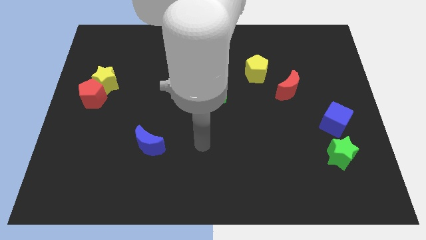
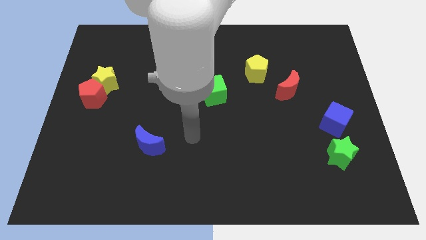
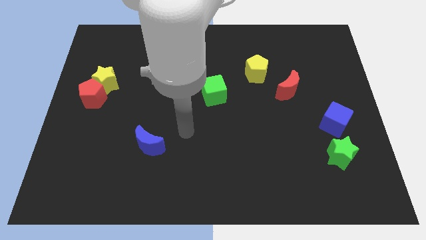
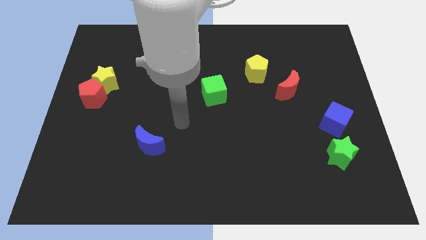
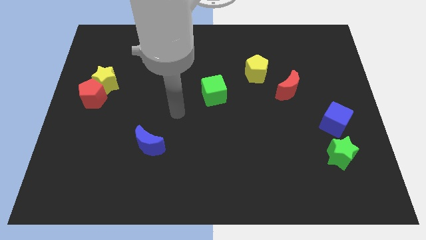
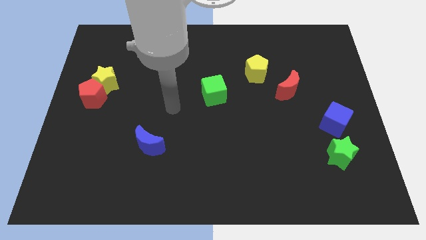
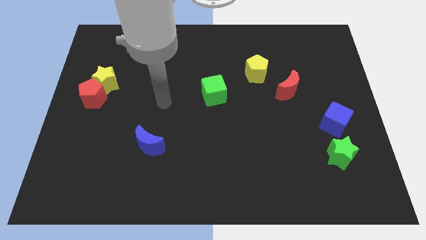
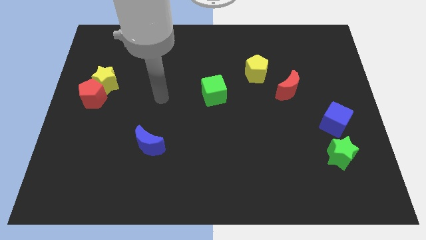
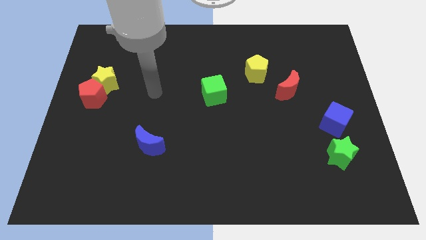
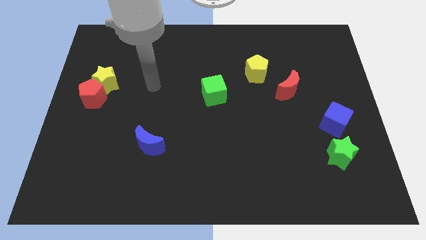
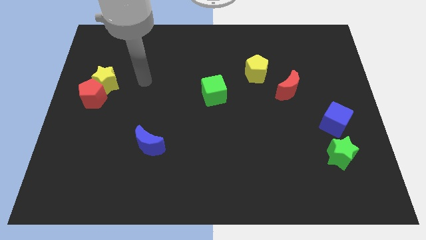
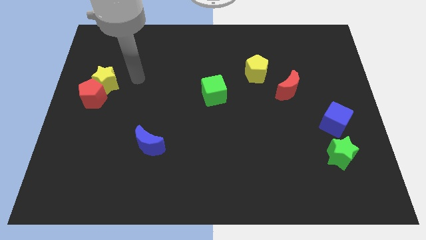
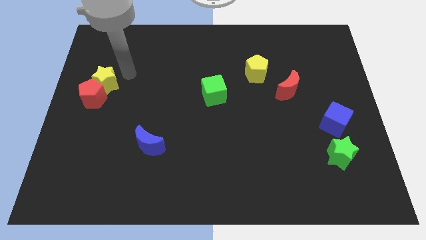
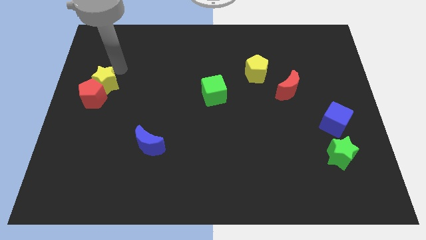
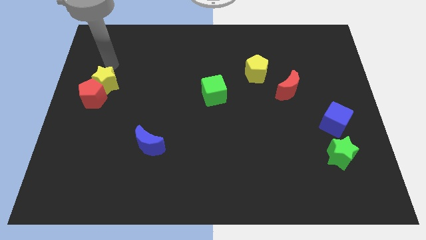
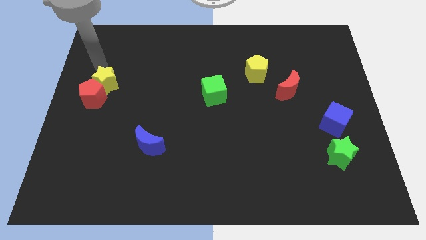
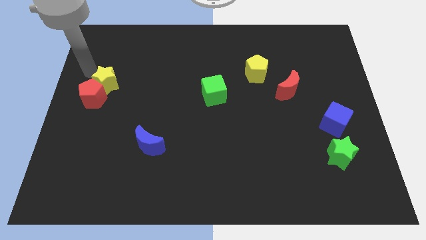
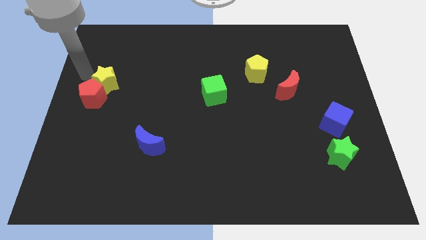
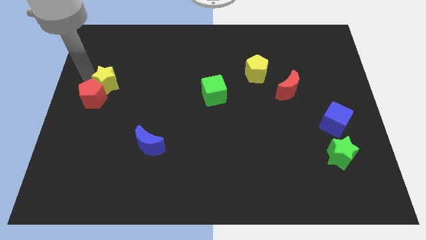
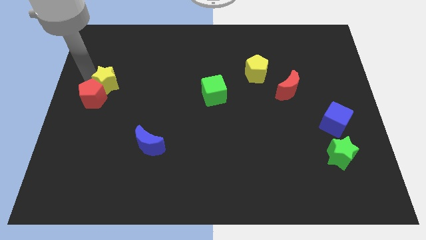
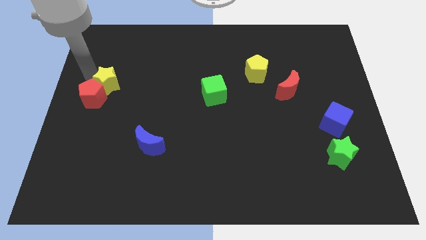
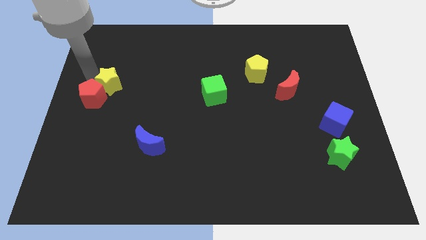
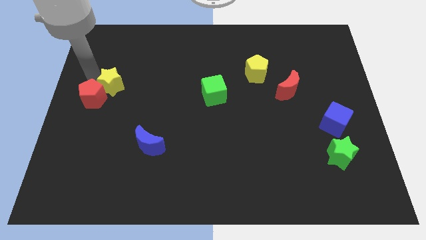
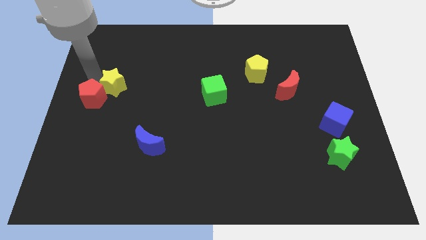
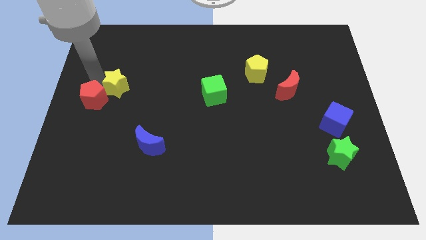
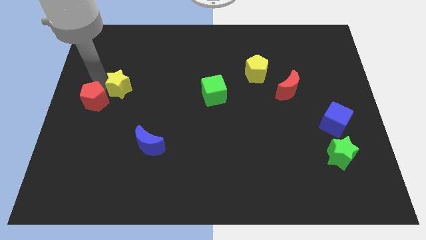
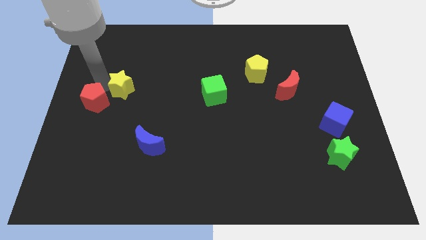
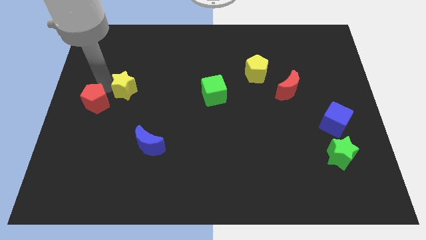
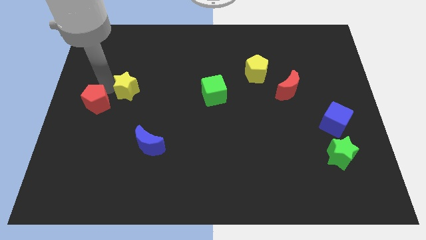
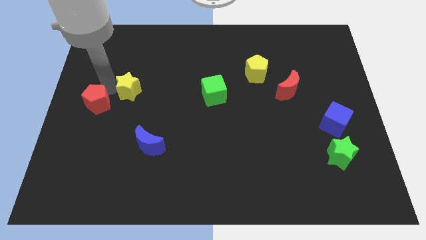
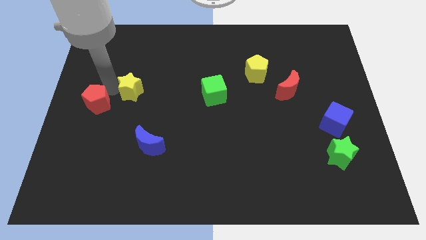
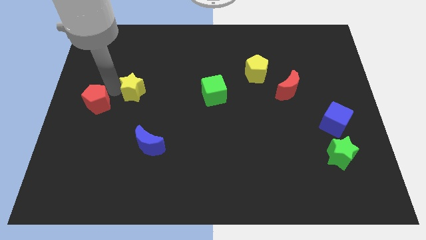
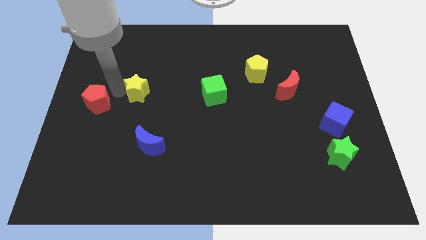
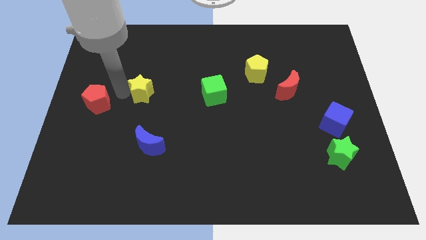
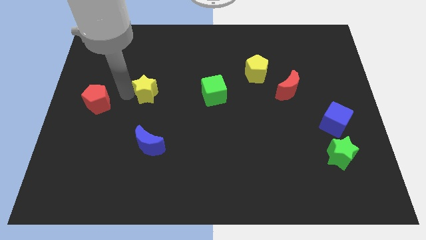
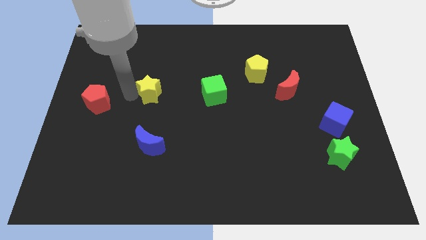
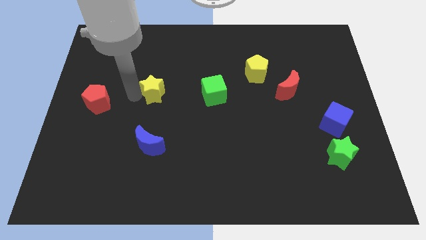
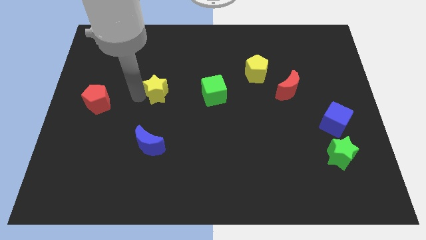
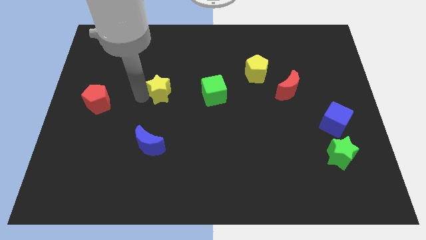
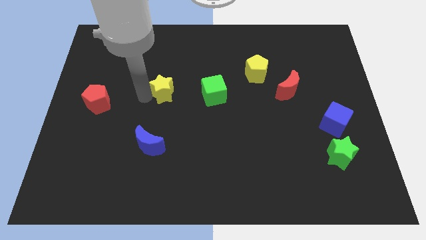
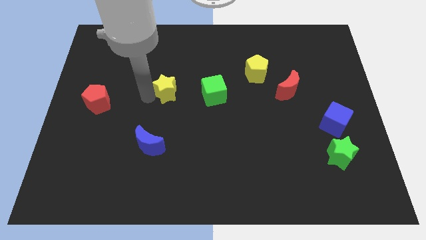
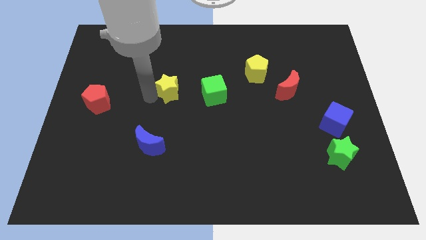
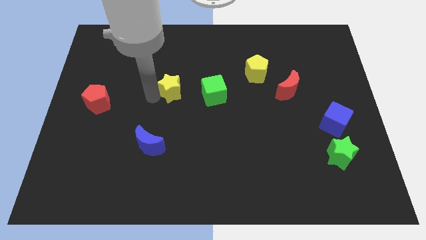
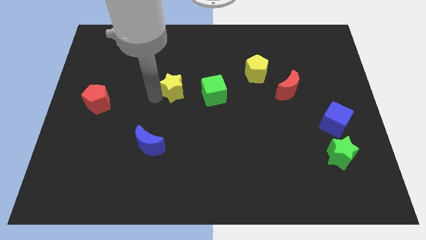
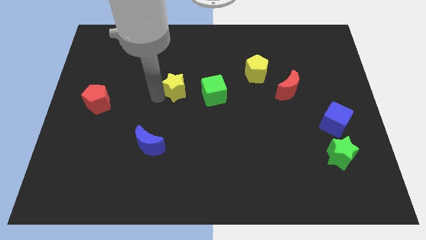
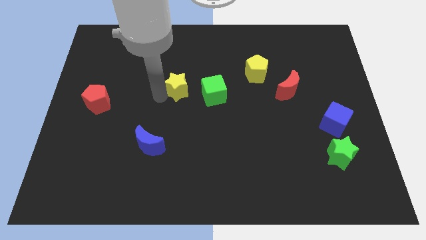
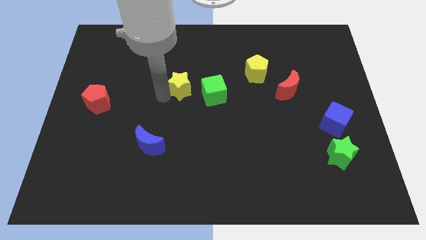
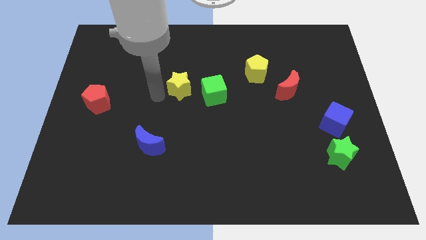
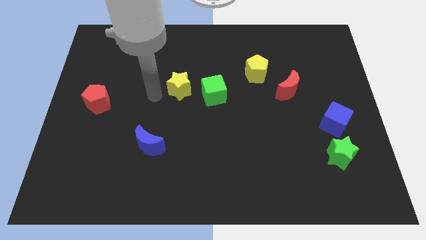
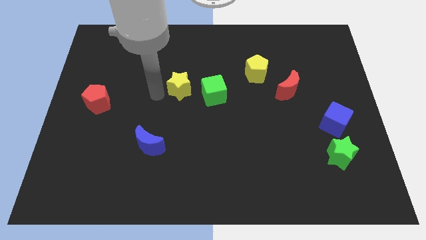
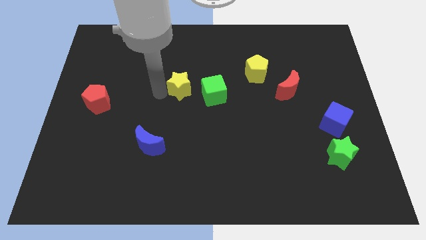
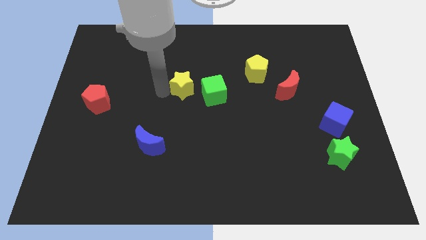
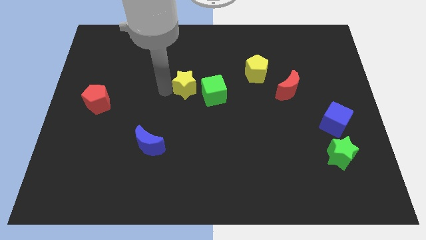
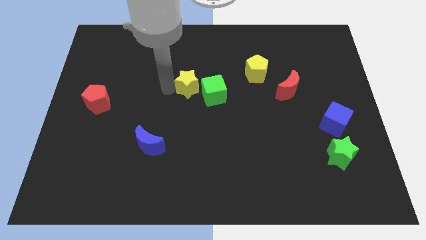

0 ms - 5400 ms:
move the yellow star to the right

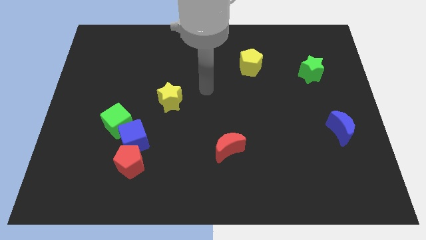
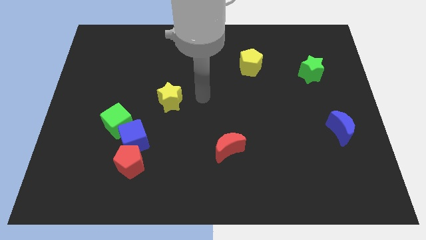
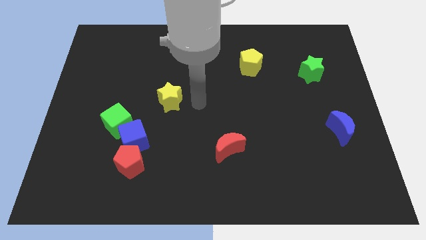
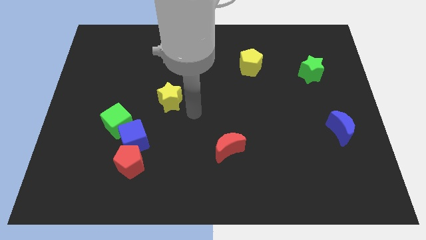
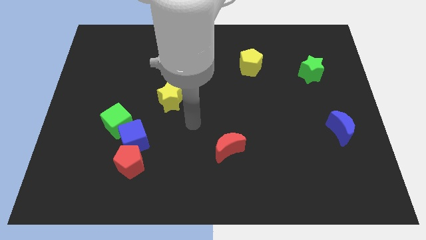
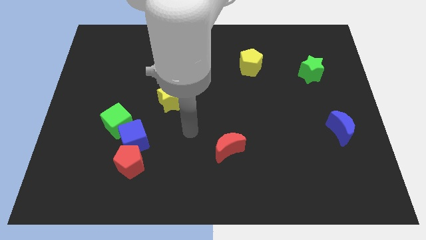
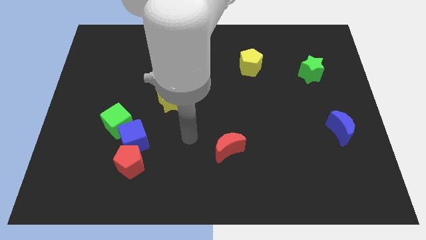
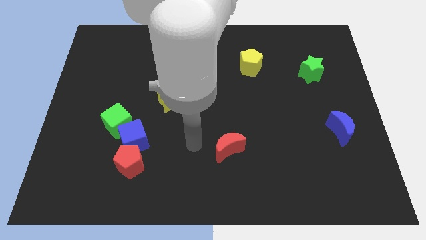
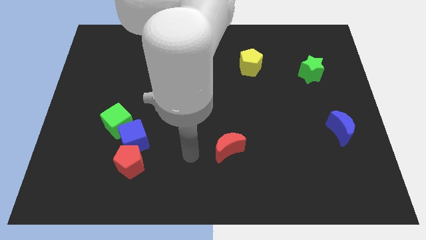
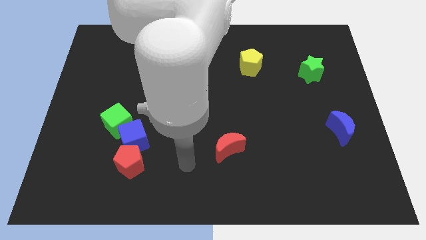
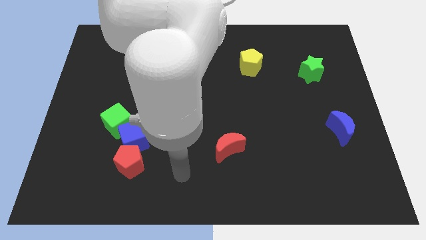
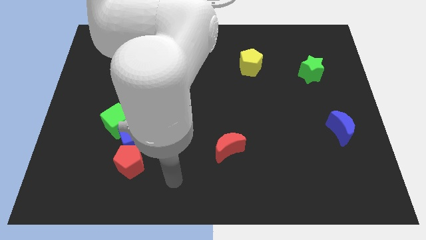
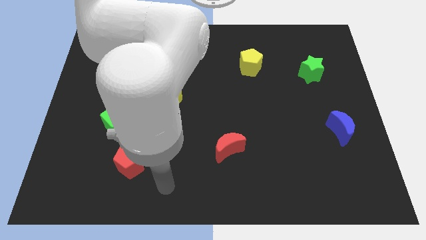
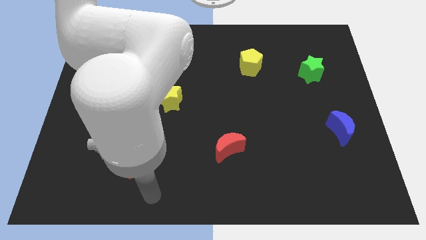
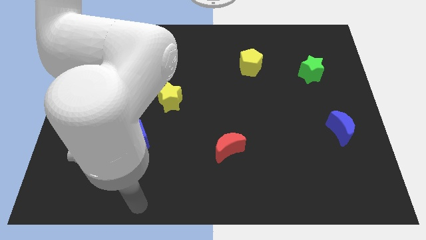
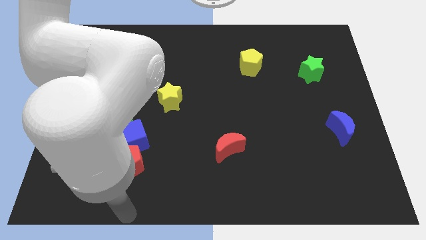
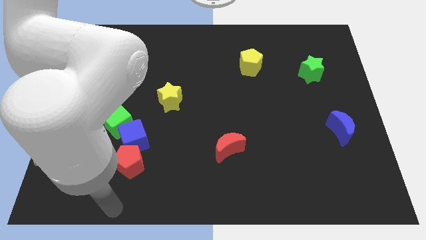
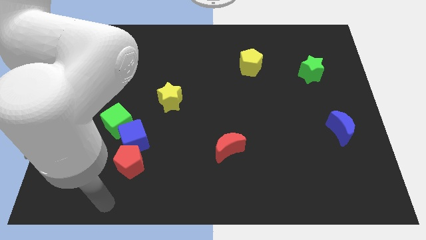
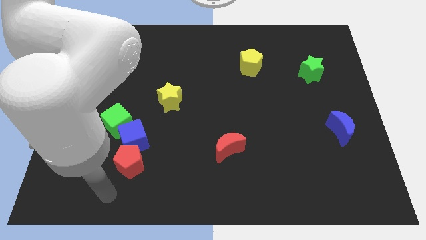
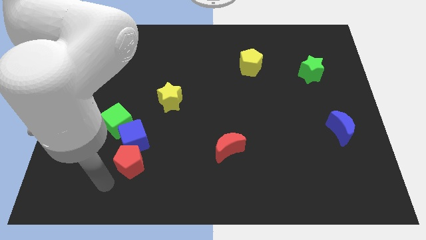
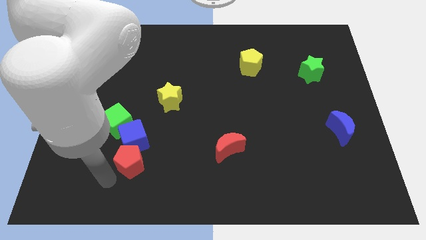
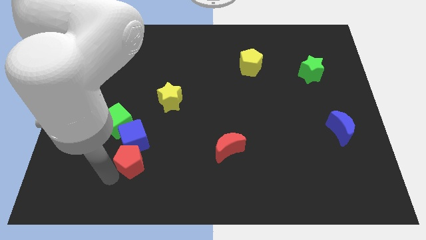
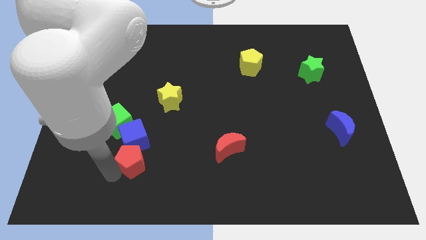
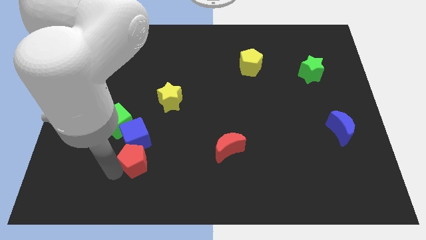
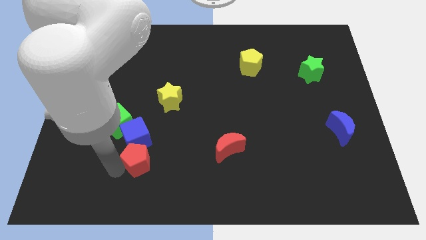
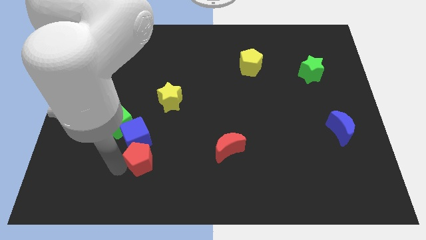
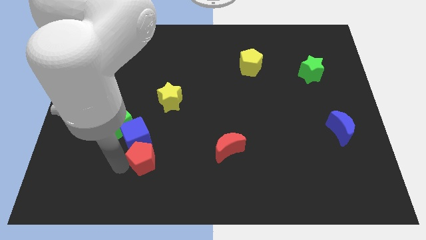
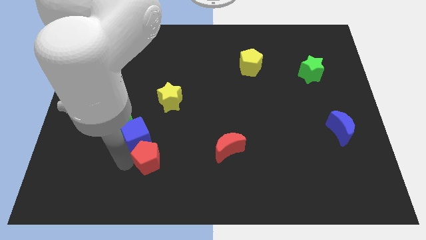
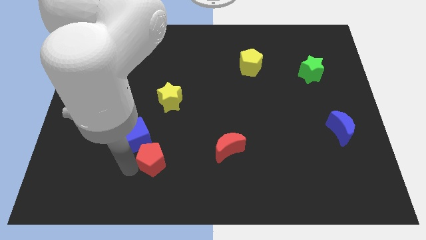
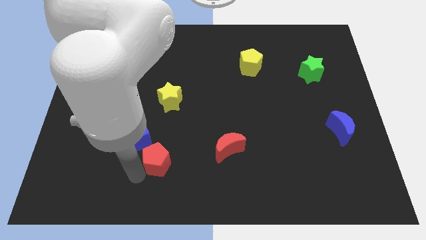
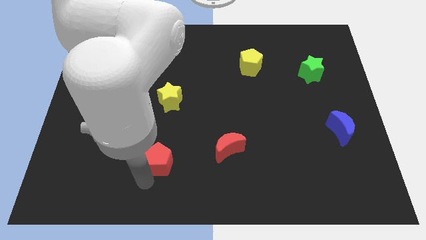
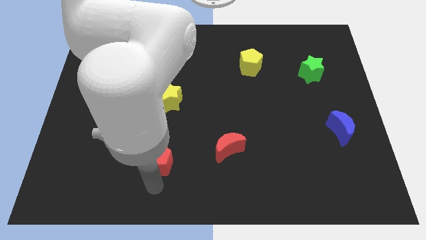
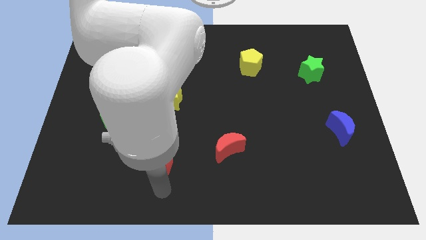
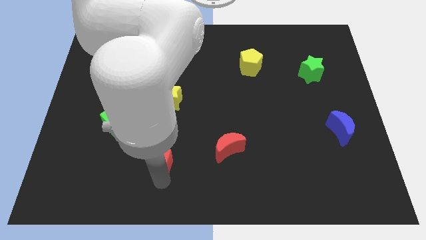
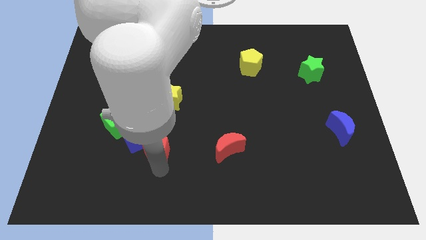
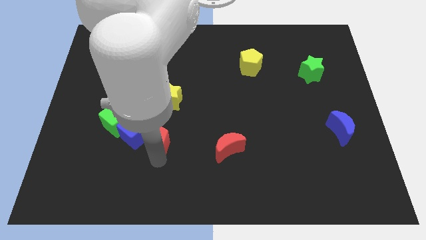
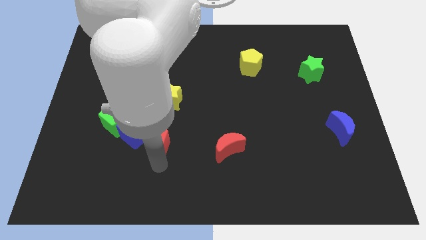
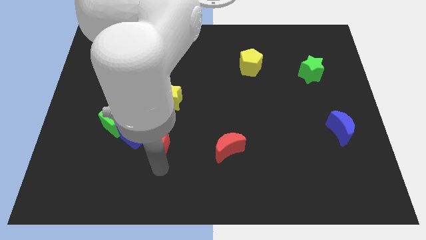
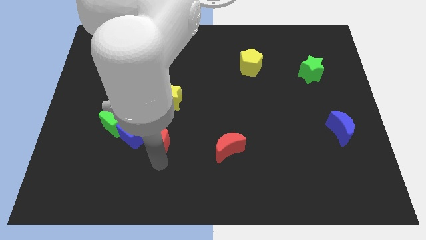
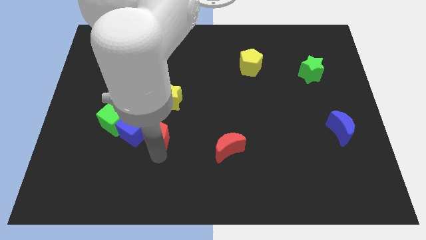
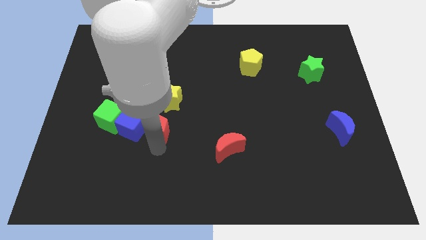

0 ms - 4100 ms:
slightly move the red pentagon upwards
